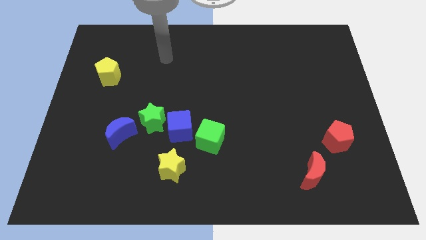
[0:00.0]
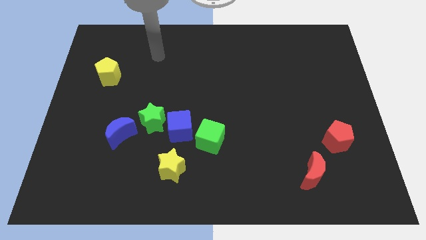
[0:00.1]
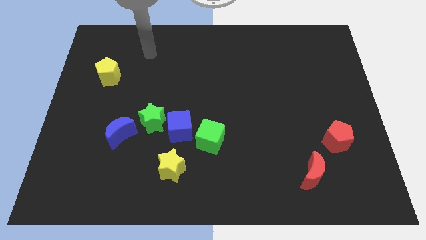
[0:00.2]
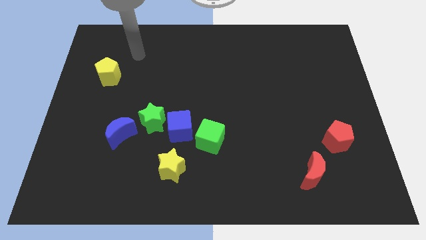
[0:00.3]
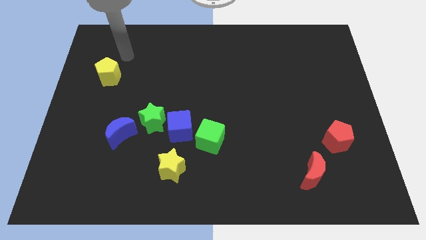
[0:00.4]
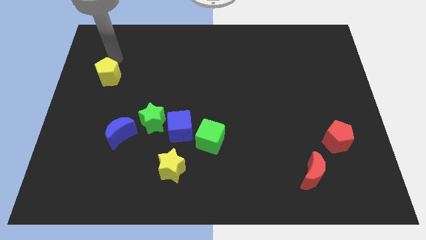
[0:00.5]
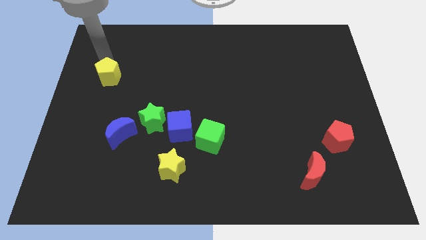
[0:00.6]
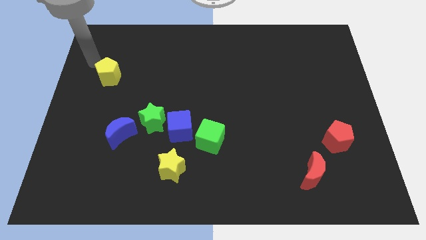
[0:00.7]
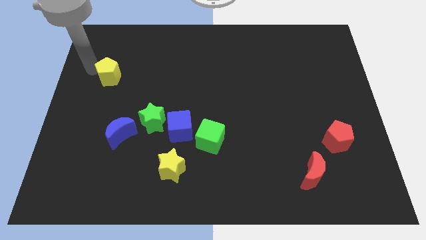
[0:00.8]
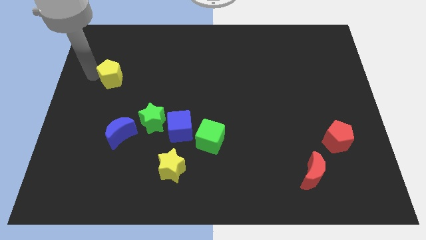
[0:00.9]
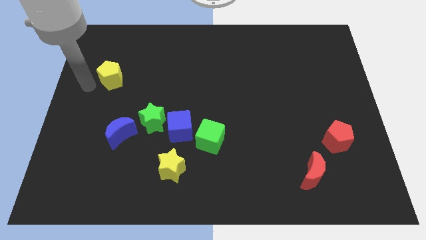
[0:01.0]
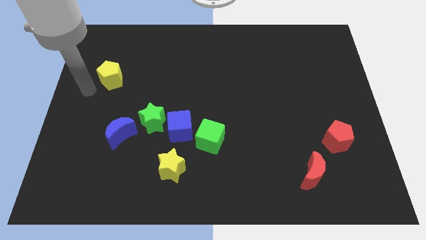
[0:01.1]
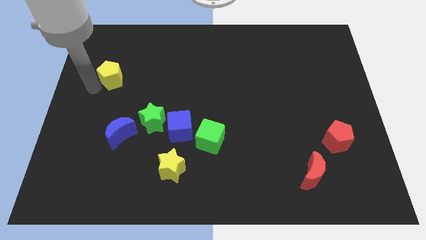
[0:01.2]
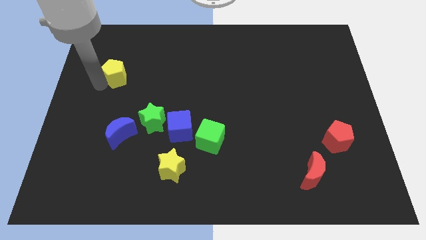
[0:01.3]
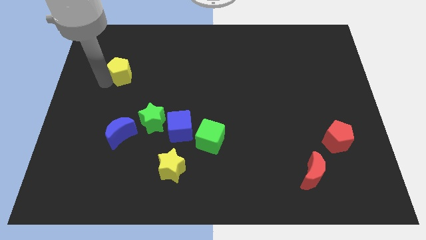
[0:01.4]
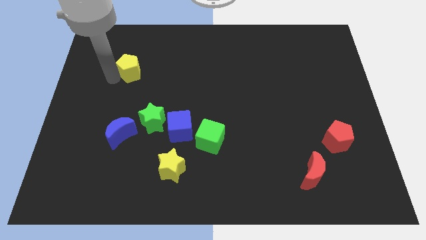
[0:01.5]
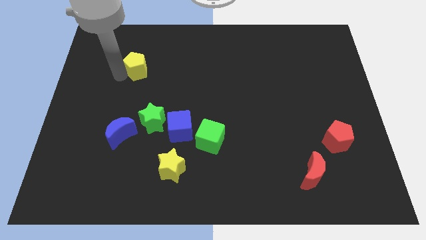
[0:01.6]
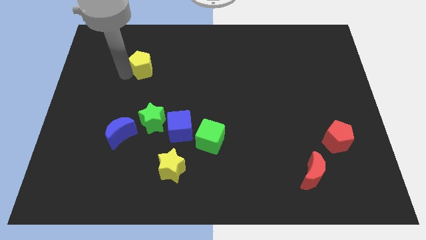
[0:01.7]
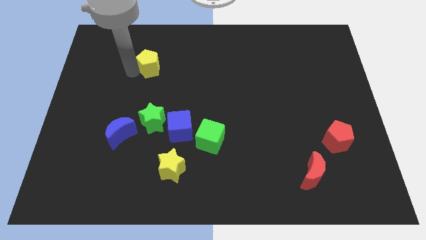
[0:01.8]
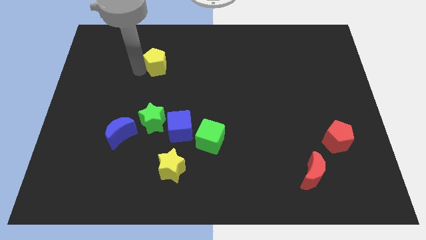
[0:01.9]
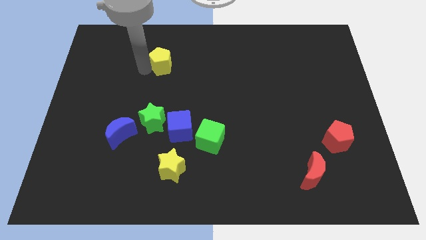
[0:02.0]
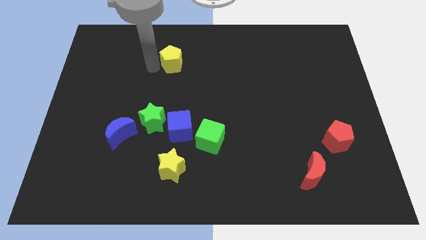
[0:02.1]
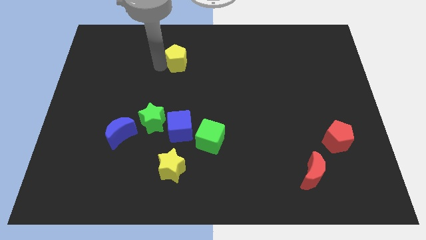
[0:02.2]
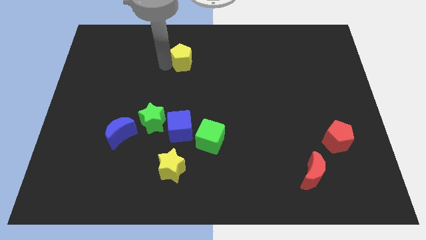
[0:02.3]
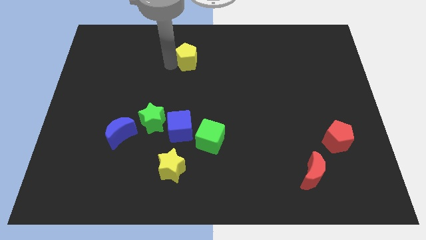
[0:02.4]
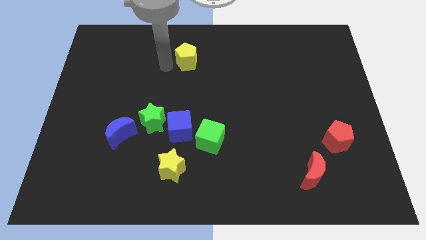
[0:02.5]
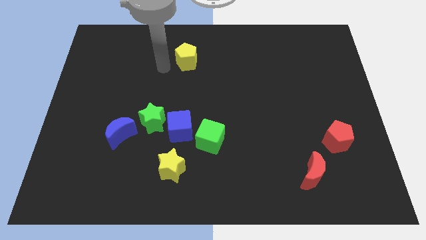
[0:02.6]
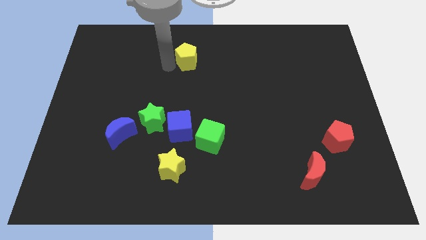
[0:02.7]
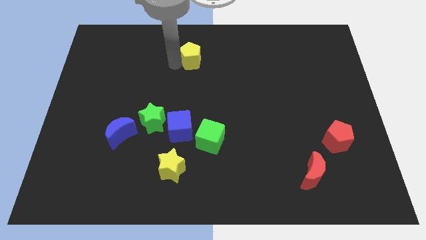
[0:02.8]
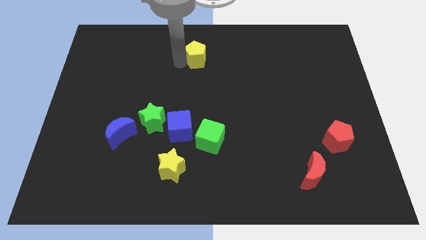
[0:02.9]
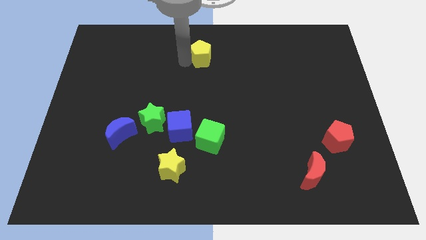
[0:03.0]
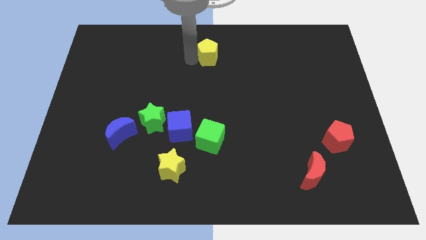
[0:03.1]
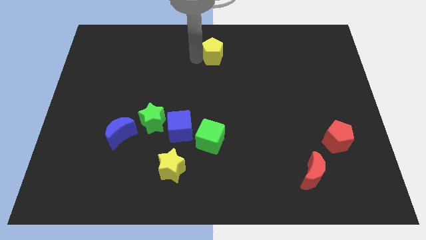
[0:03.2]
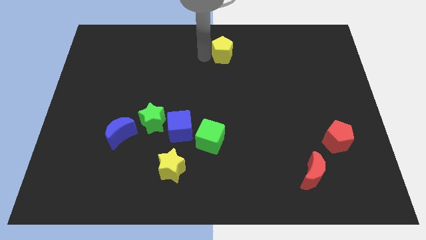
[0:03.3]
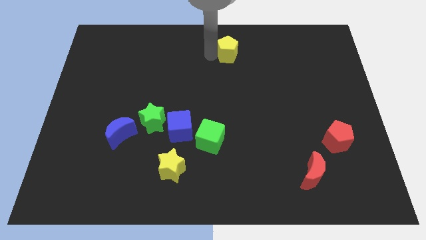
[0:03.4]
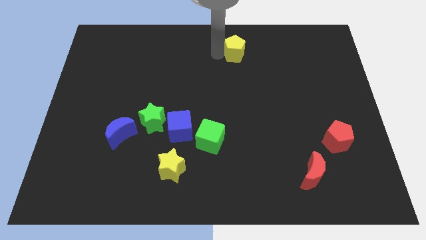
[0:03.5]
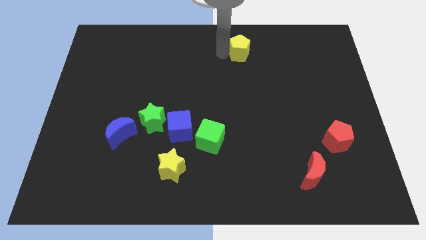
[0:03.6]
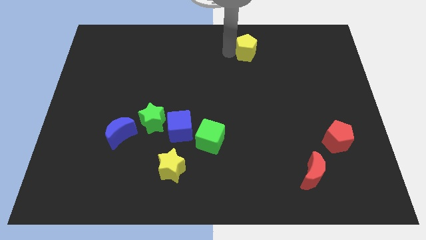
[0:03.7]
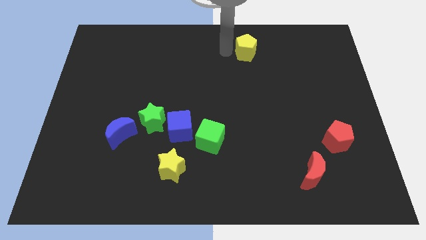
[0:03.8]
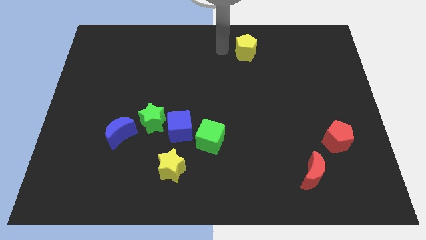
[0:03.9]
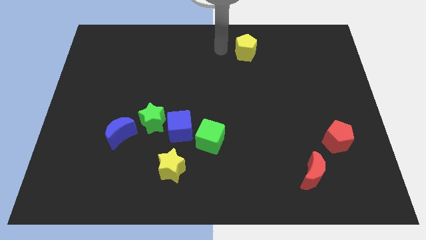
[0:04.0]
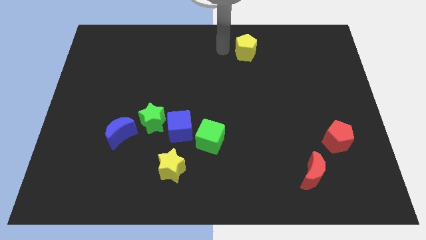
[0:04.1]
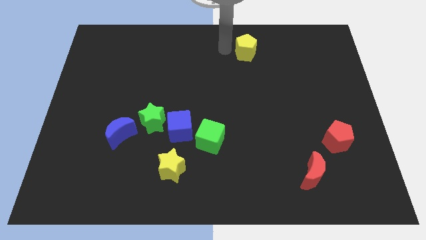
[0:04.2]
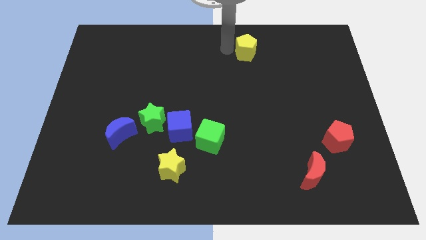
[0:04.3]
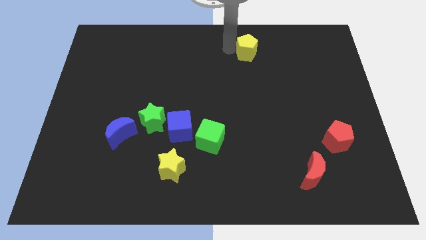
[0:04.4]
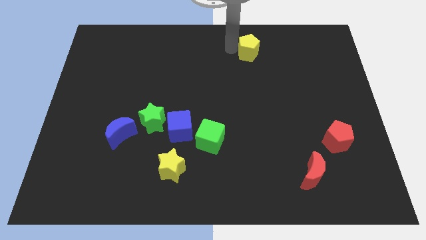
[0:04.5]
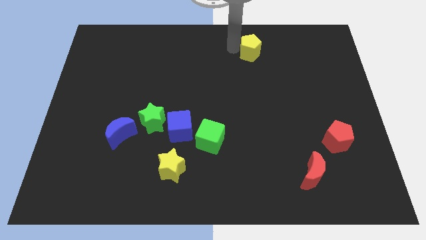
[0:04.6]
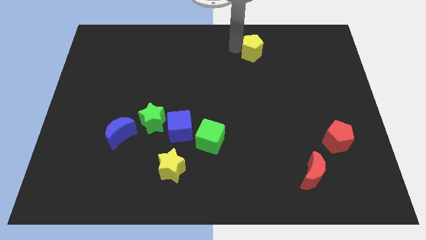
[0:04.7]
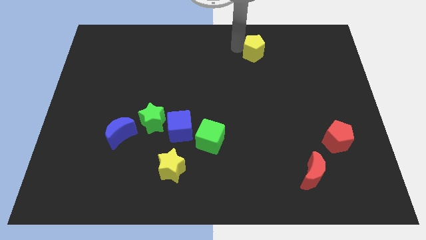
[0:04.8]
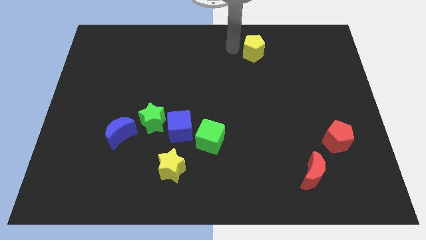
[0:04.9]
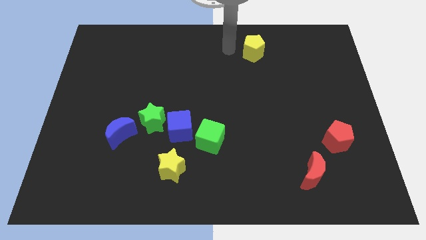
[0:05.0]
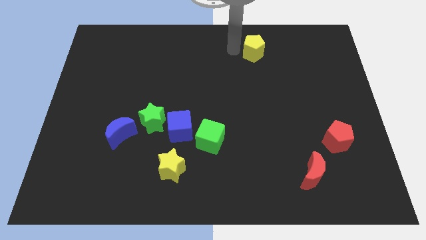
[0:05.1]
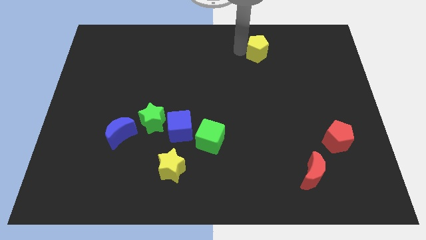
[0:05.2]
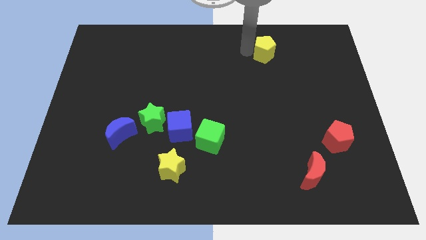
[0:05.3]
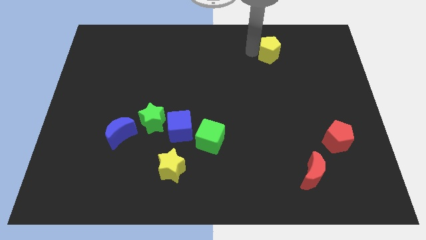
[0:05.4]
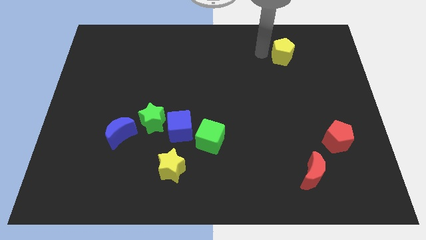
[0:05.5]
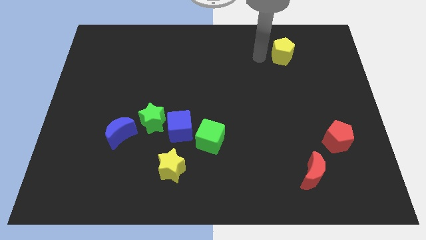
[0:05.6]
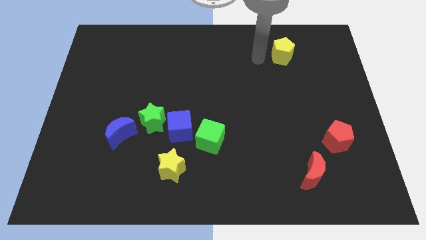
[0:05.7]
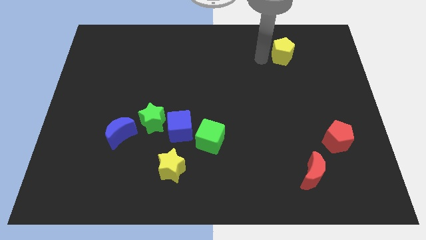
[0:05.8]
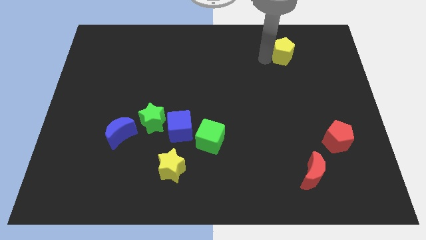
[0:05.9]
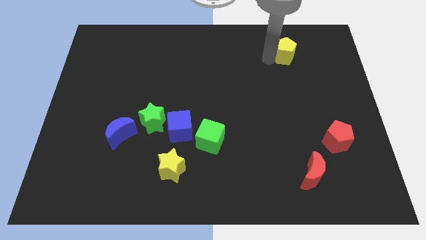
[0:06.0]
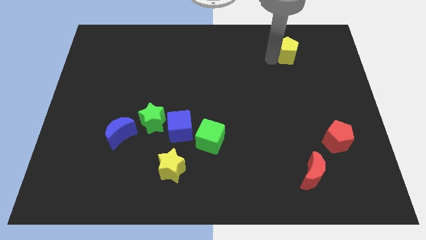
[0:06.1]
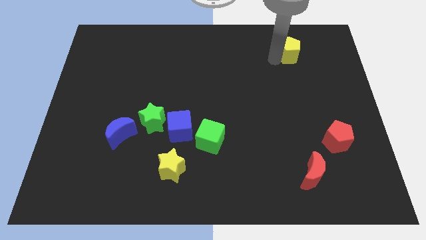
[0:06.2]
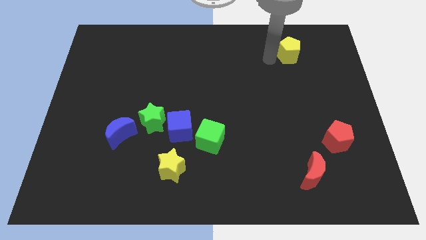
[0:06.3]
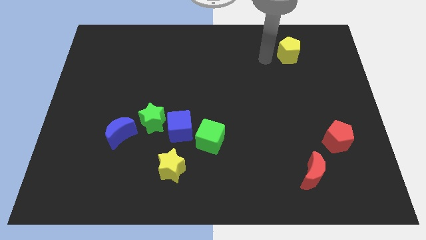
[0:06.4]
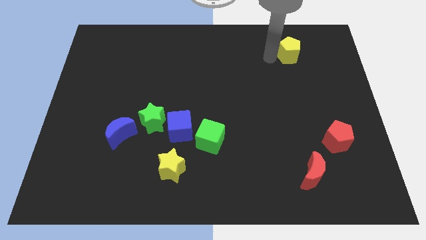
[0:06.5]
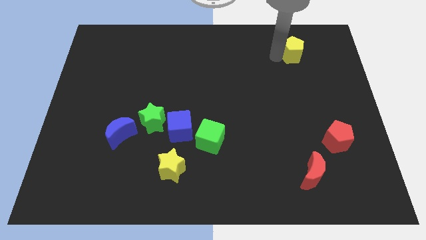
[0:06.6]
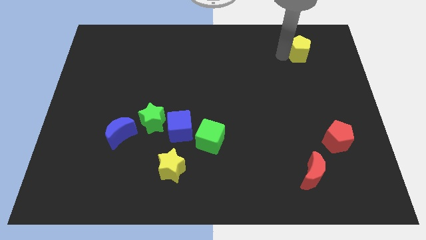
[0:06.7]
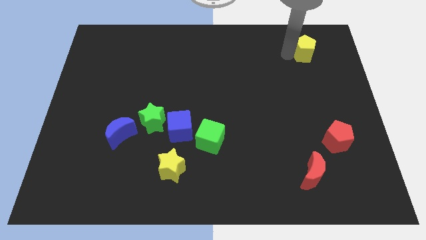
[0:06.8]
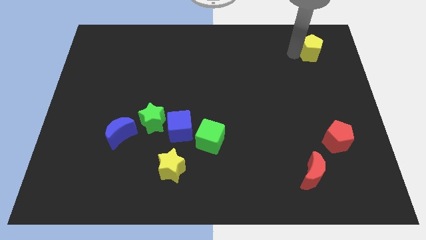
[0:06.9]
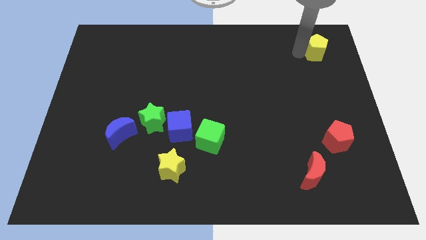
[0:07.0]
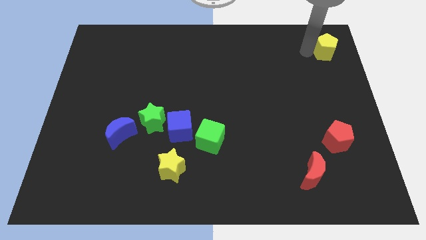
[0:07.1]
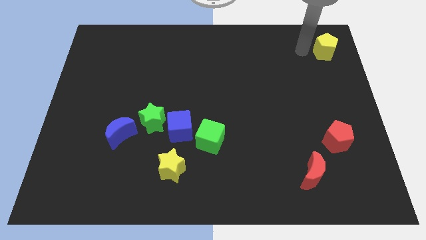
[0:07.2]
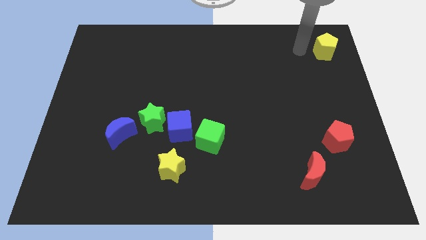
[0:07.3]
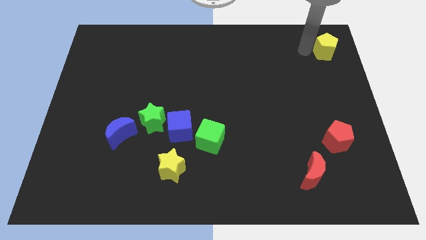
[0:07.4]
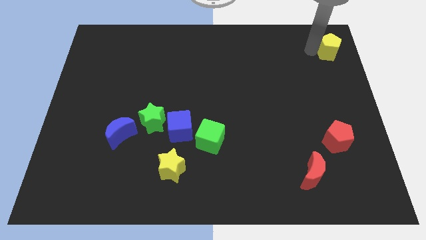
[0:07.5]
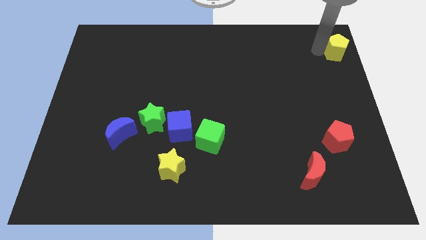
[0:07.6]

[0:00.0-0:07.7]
put the yellow pentagon to the top right
